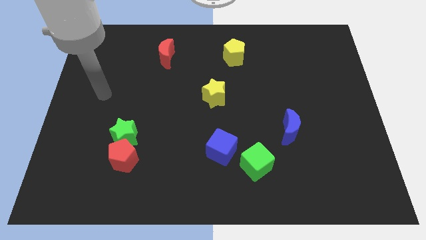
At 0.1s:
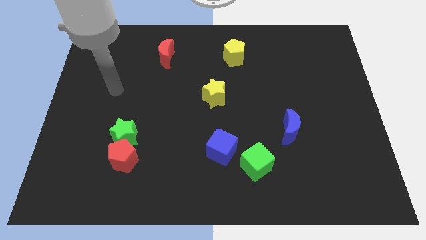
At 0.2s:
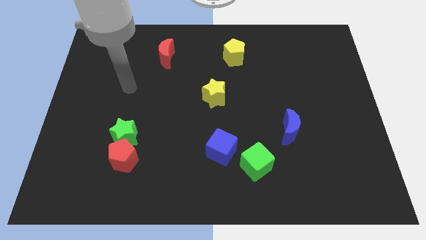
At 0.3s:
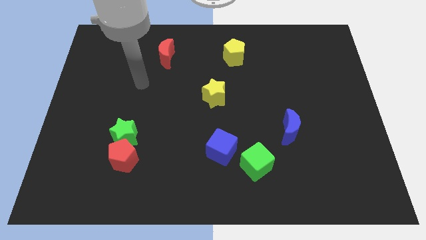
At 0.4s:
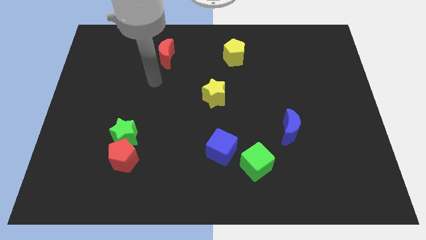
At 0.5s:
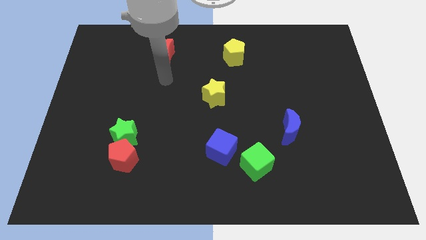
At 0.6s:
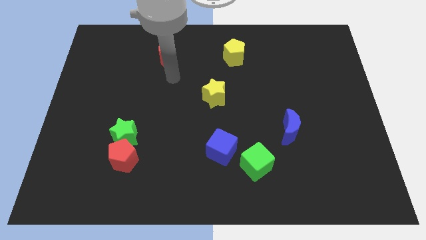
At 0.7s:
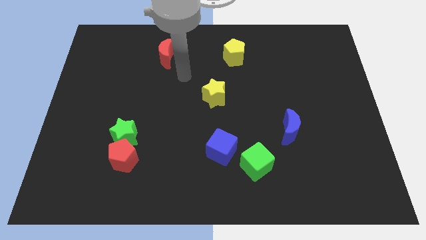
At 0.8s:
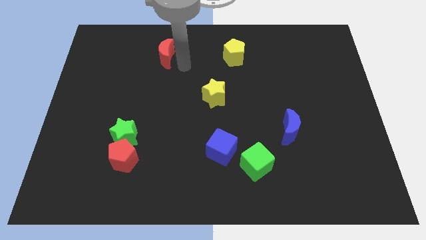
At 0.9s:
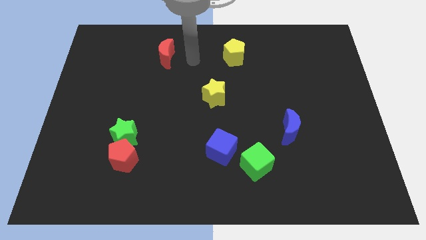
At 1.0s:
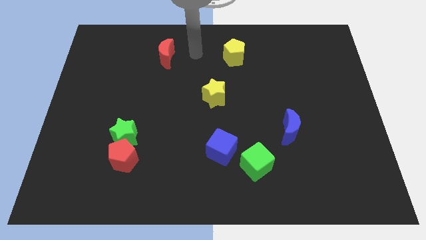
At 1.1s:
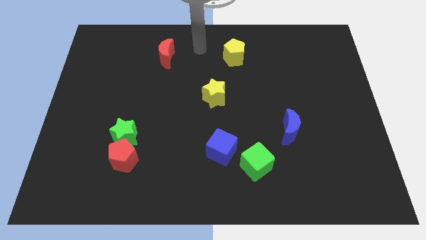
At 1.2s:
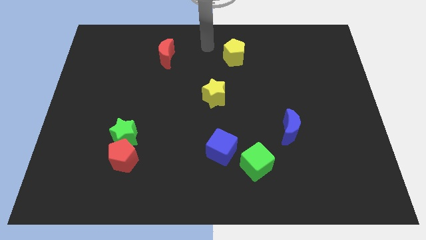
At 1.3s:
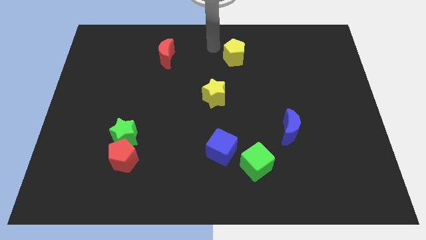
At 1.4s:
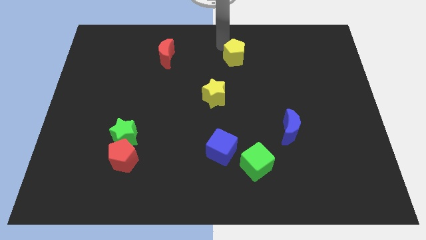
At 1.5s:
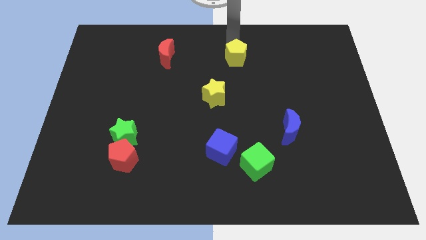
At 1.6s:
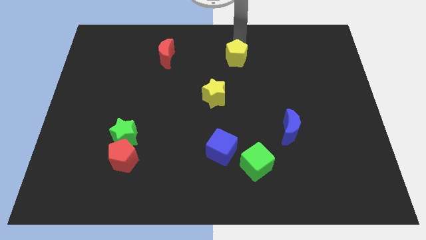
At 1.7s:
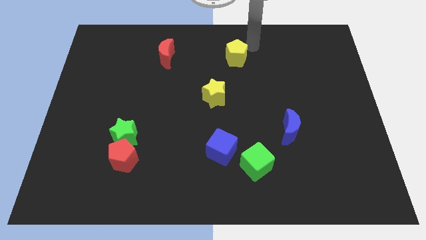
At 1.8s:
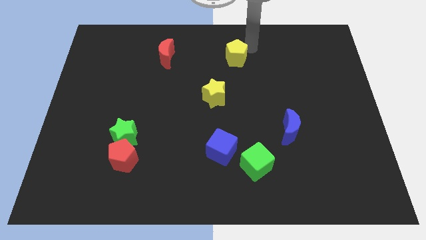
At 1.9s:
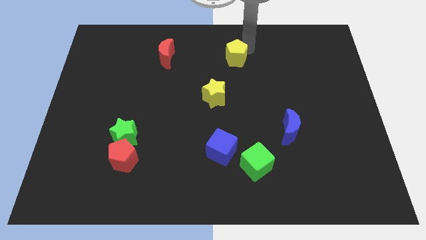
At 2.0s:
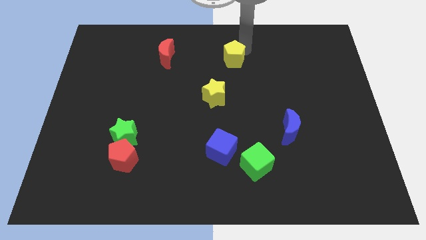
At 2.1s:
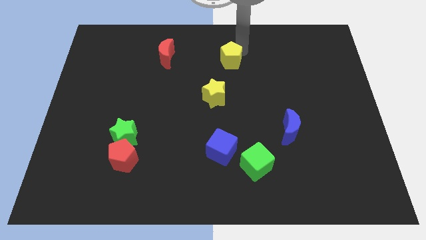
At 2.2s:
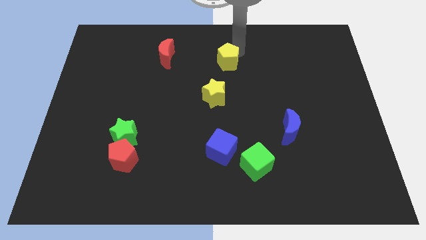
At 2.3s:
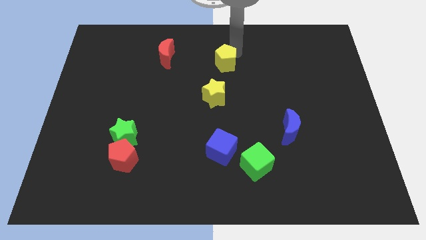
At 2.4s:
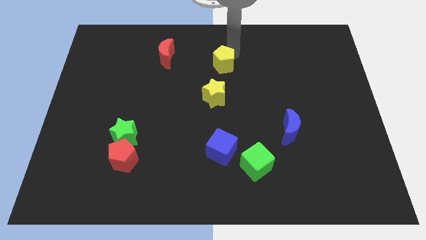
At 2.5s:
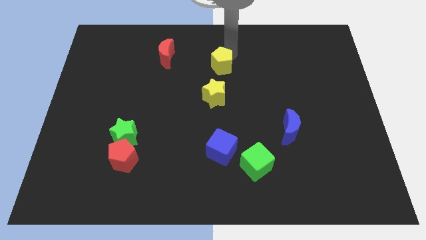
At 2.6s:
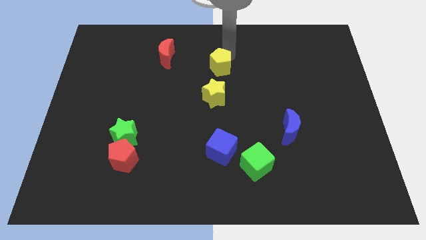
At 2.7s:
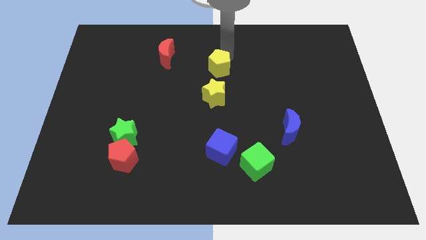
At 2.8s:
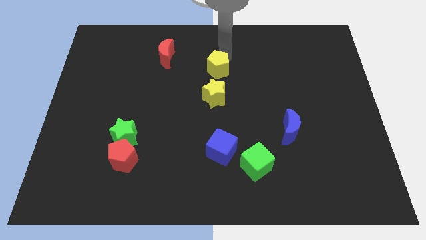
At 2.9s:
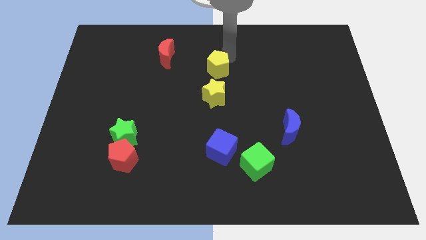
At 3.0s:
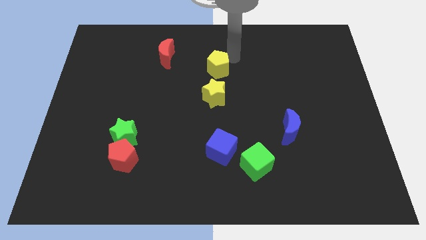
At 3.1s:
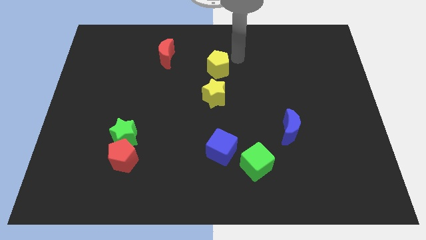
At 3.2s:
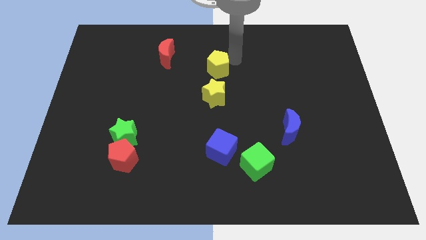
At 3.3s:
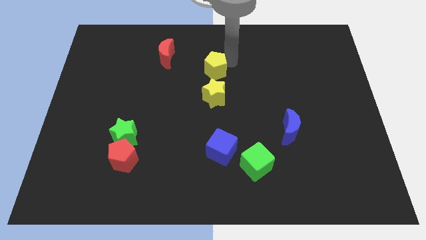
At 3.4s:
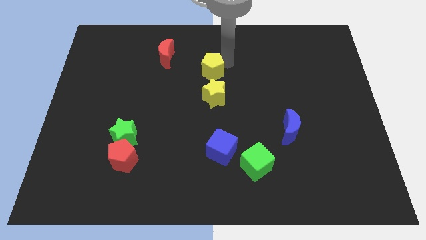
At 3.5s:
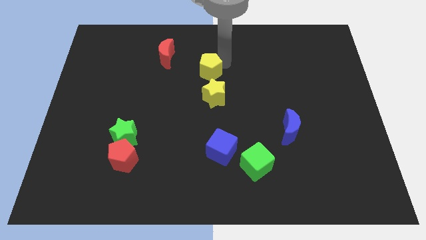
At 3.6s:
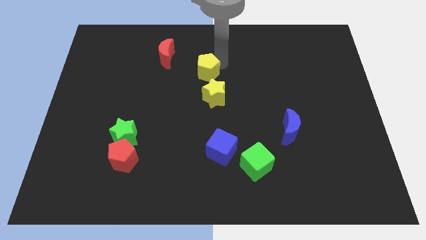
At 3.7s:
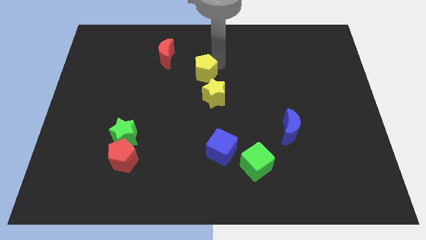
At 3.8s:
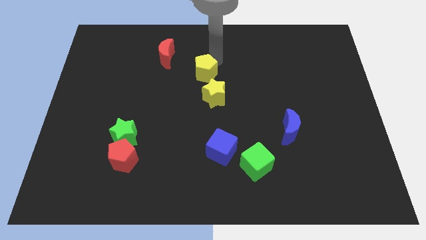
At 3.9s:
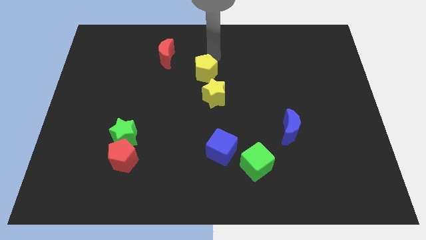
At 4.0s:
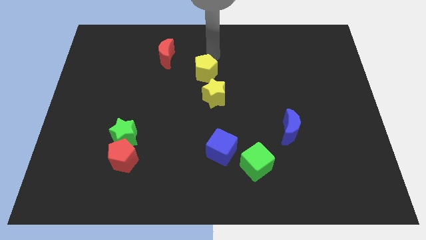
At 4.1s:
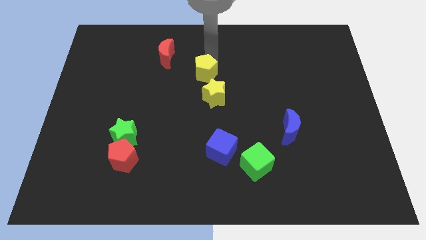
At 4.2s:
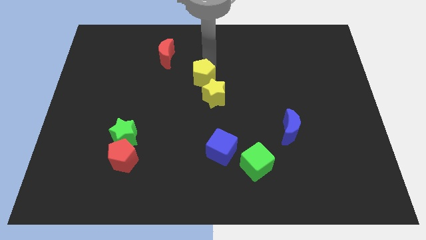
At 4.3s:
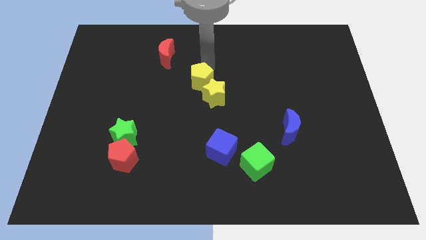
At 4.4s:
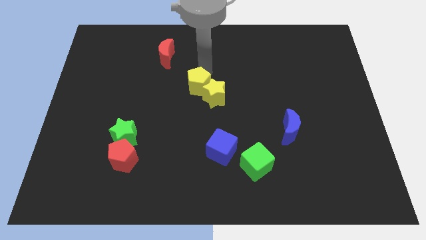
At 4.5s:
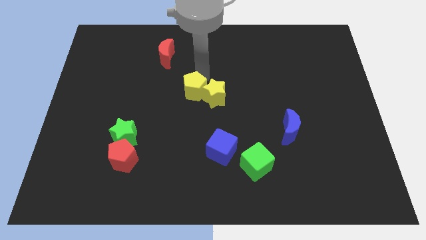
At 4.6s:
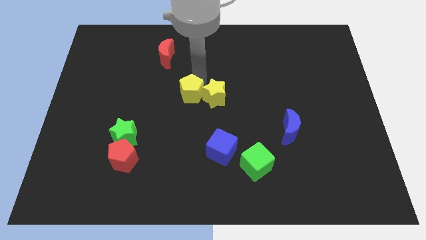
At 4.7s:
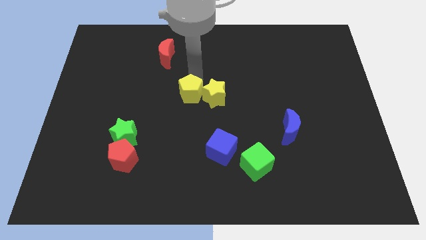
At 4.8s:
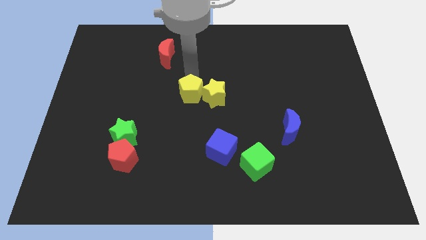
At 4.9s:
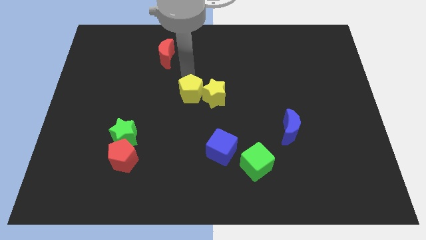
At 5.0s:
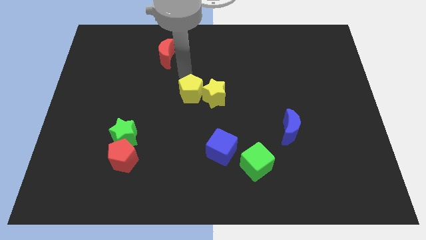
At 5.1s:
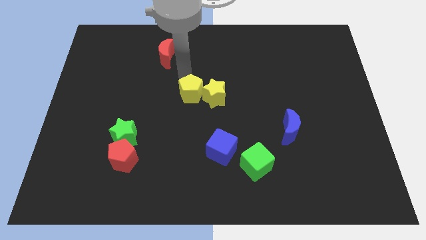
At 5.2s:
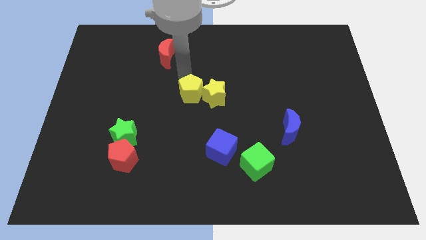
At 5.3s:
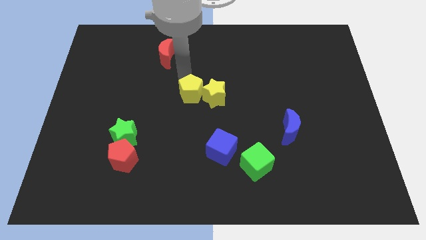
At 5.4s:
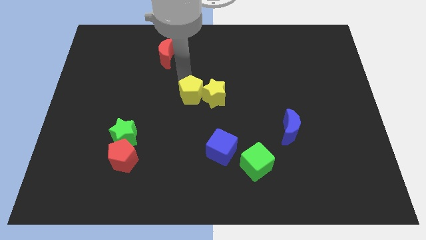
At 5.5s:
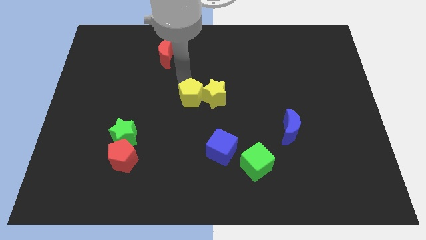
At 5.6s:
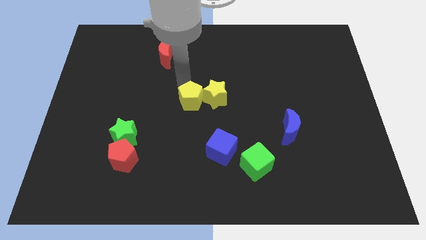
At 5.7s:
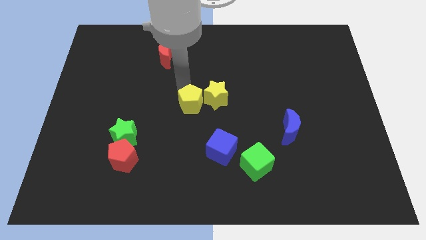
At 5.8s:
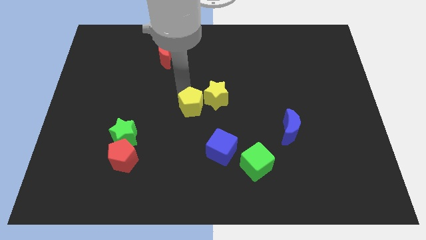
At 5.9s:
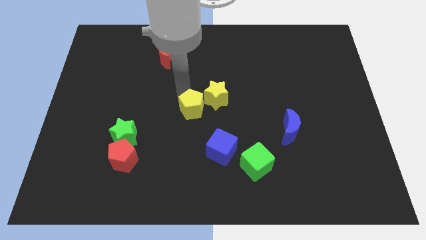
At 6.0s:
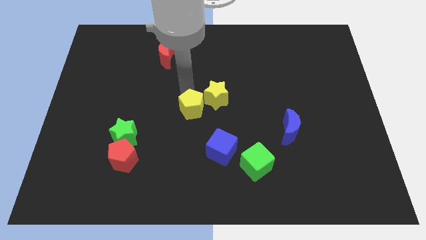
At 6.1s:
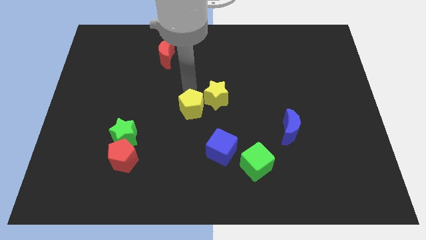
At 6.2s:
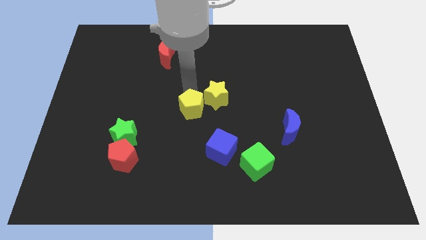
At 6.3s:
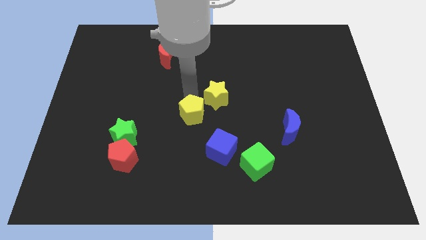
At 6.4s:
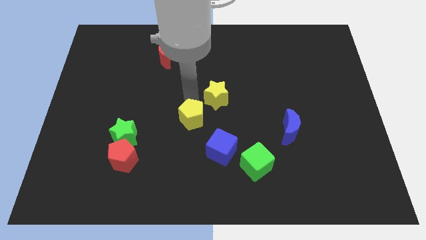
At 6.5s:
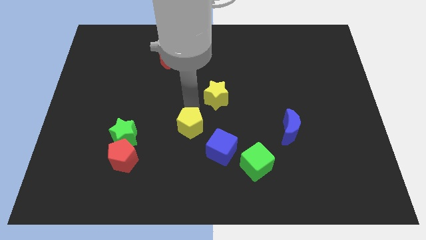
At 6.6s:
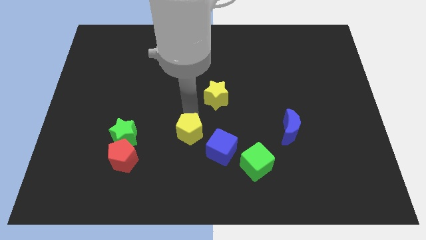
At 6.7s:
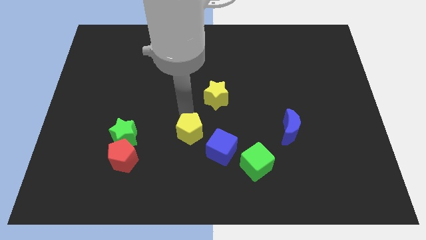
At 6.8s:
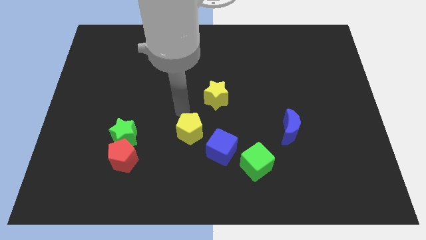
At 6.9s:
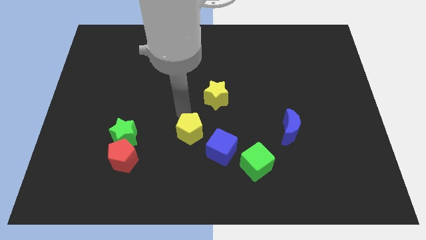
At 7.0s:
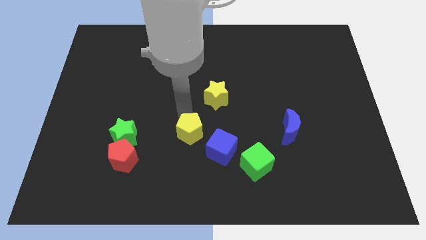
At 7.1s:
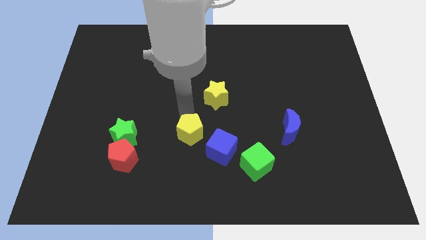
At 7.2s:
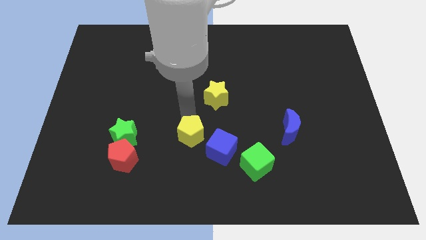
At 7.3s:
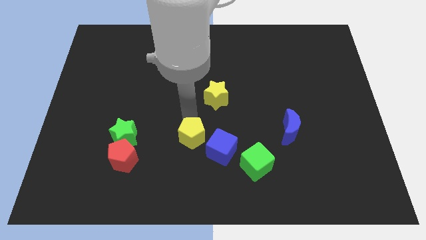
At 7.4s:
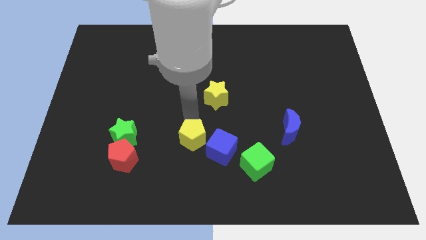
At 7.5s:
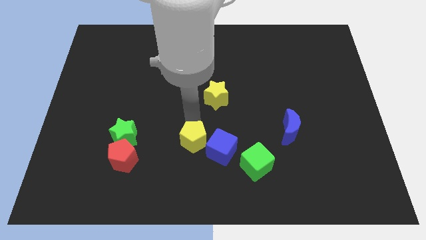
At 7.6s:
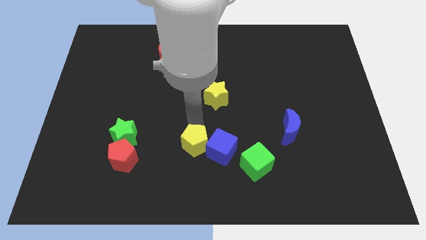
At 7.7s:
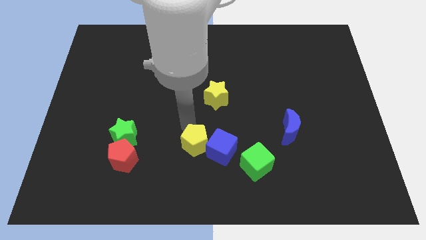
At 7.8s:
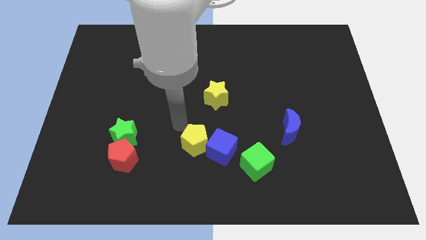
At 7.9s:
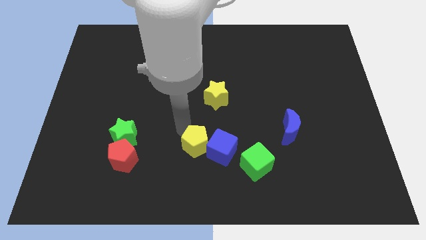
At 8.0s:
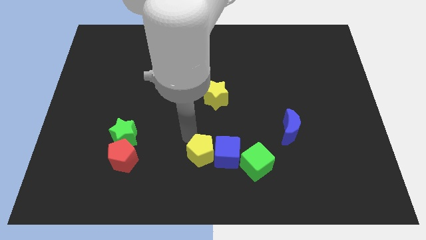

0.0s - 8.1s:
slide the yellow pentagon to the bottom side
